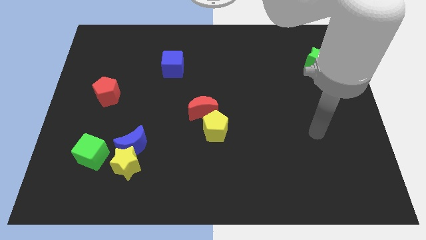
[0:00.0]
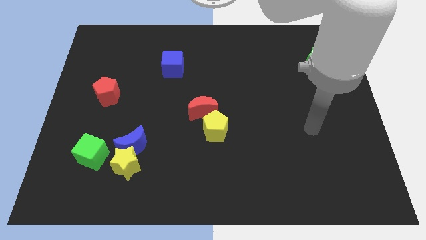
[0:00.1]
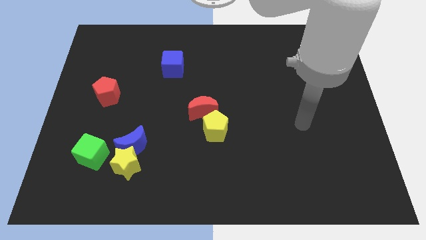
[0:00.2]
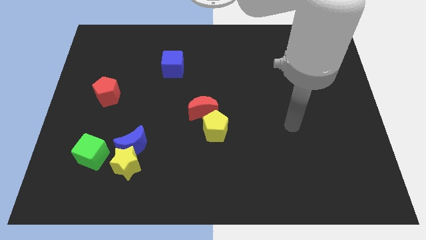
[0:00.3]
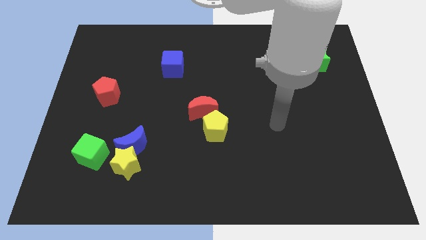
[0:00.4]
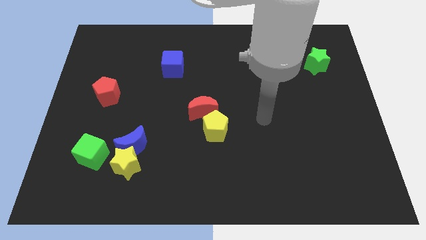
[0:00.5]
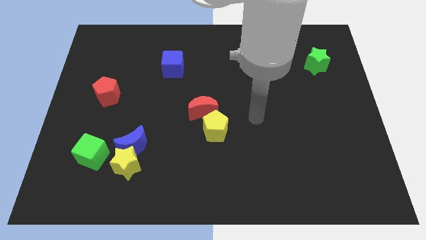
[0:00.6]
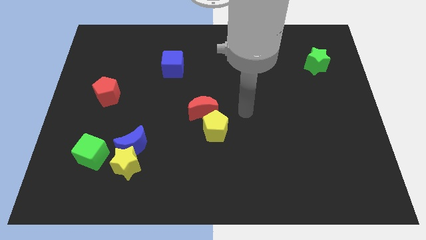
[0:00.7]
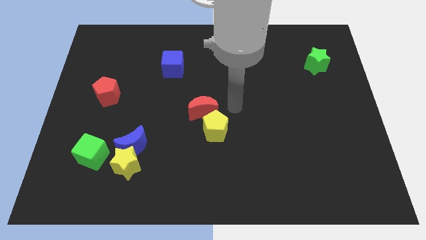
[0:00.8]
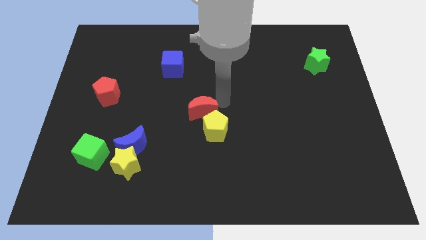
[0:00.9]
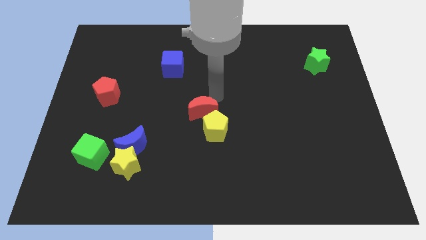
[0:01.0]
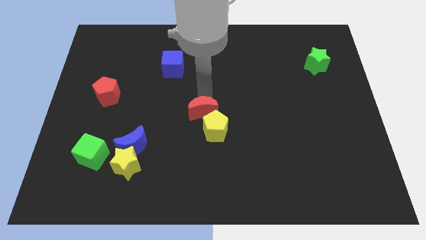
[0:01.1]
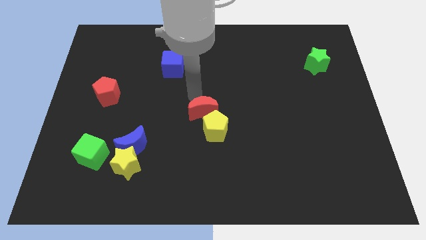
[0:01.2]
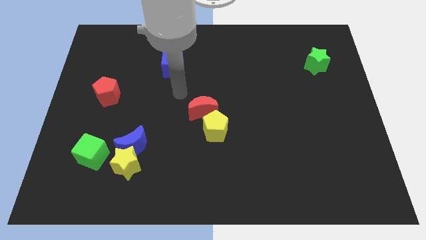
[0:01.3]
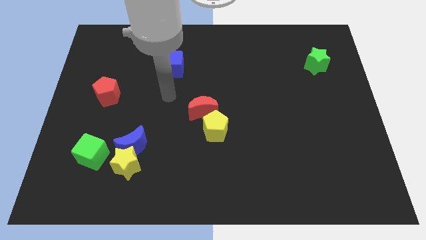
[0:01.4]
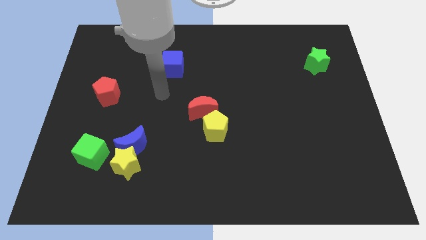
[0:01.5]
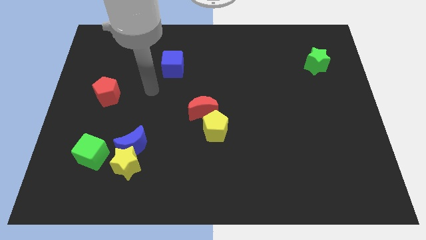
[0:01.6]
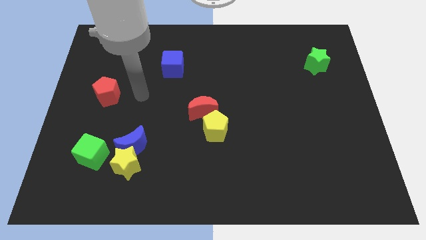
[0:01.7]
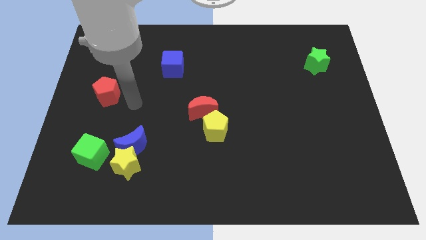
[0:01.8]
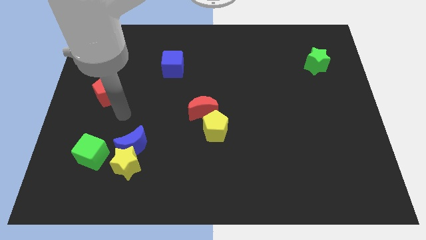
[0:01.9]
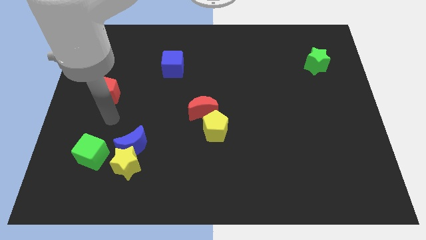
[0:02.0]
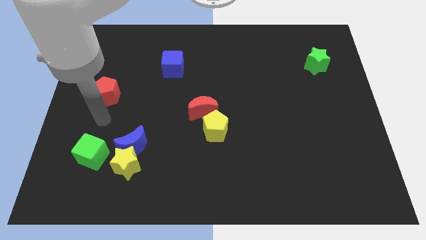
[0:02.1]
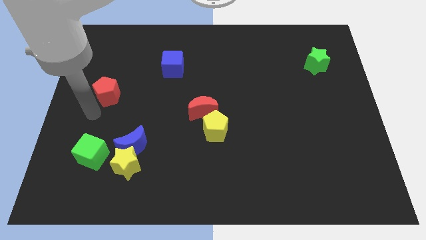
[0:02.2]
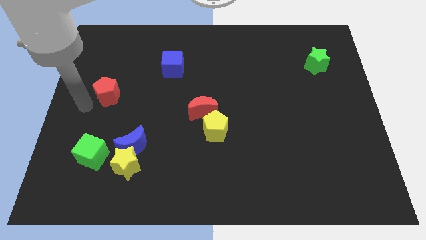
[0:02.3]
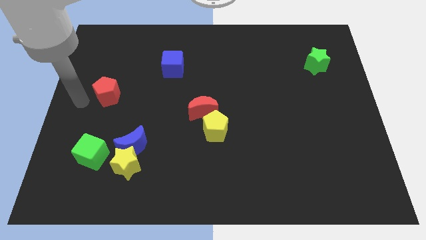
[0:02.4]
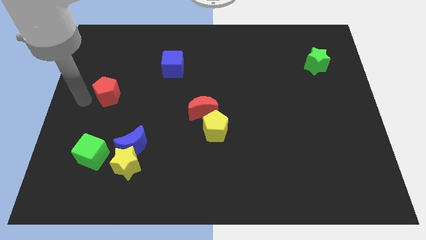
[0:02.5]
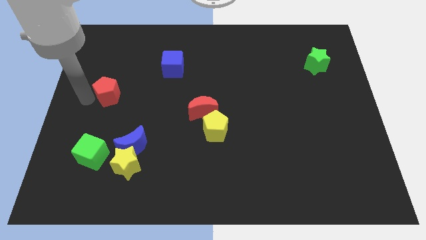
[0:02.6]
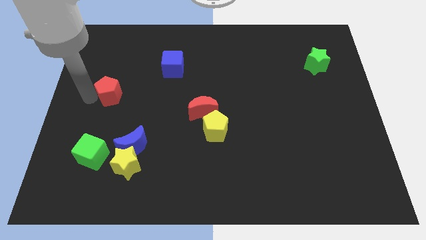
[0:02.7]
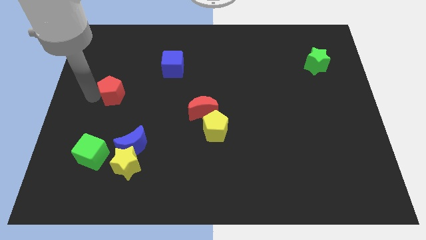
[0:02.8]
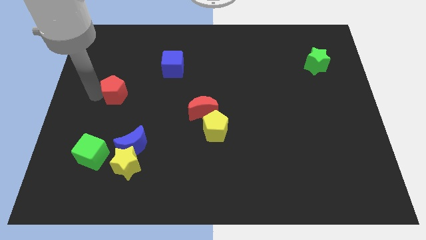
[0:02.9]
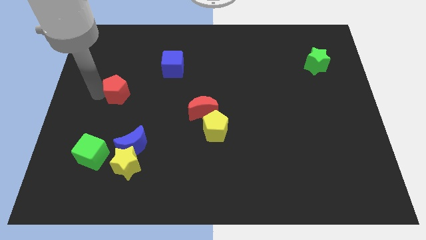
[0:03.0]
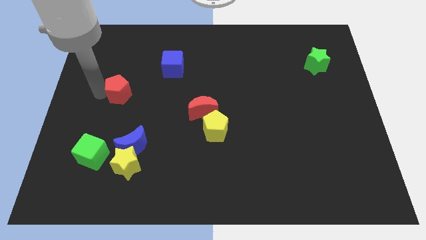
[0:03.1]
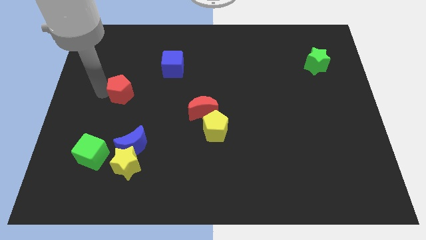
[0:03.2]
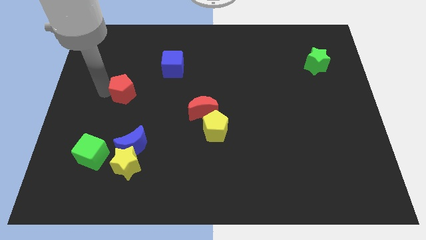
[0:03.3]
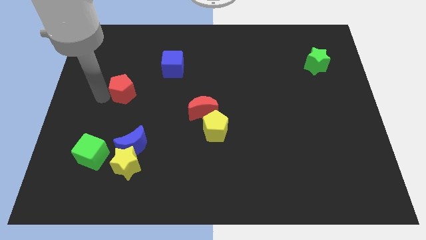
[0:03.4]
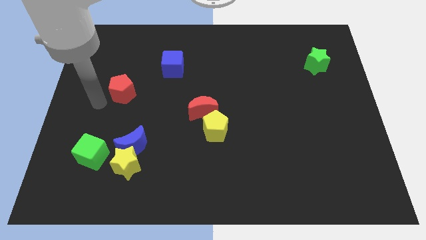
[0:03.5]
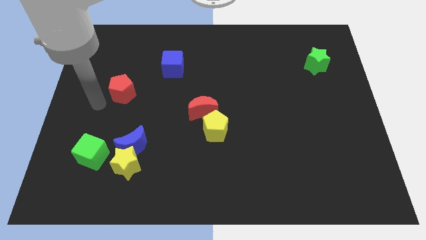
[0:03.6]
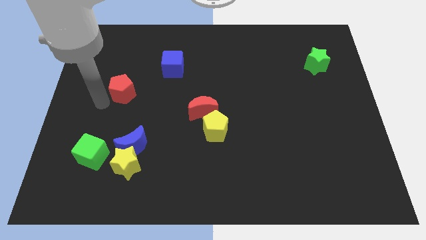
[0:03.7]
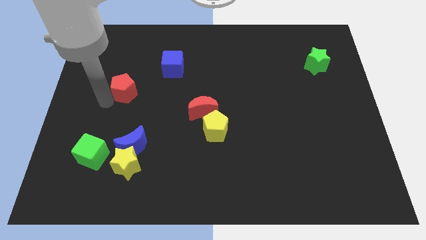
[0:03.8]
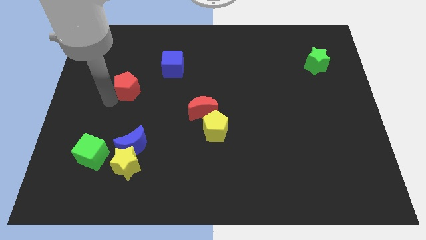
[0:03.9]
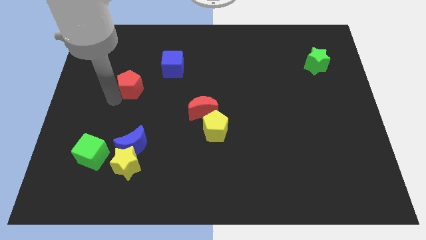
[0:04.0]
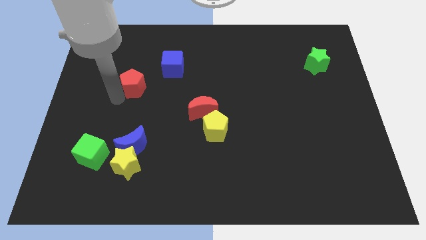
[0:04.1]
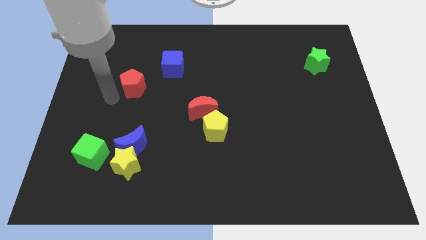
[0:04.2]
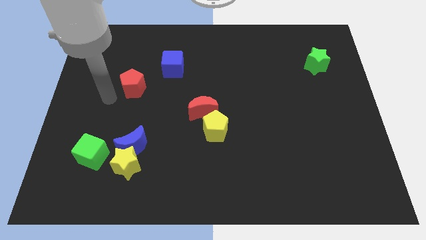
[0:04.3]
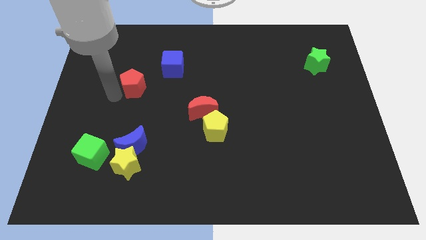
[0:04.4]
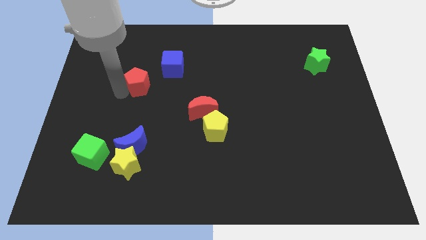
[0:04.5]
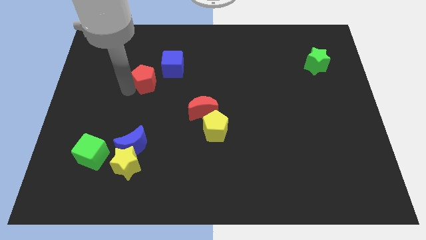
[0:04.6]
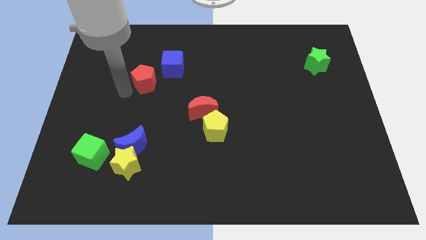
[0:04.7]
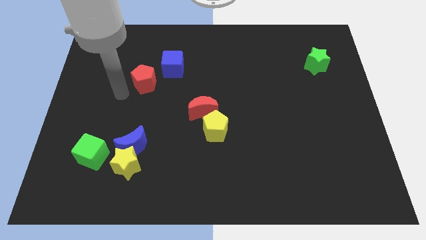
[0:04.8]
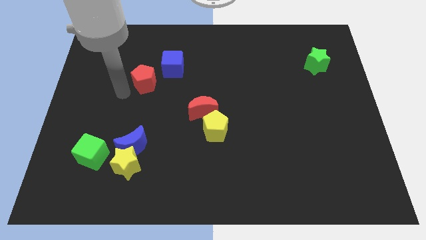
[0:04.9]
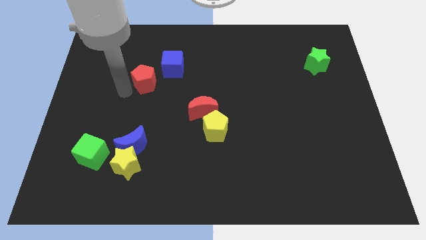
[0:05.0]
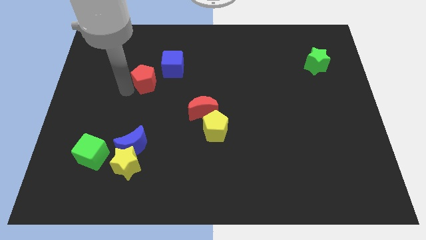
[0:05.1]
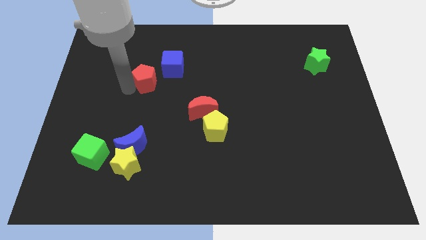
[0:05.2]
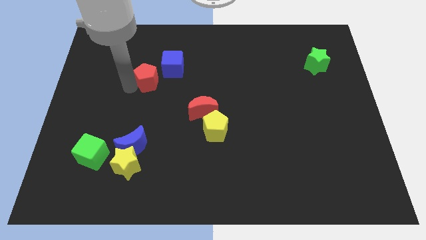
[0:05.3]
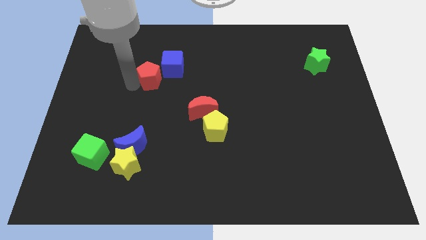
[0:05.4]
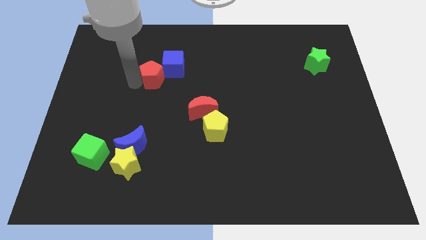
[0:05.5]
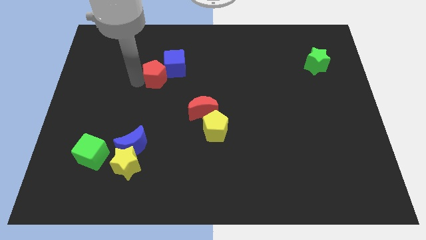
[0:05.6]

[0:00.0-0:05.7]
push the red pentagon towards the blue cube

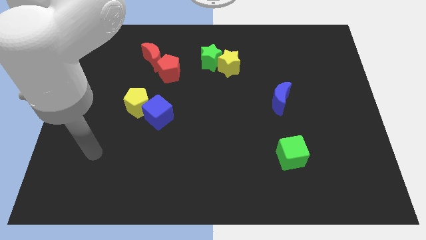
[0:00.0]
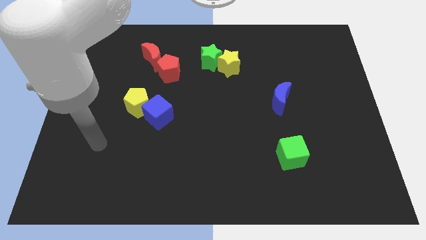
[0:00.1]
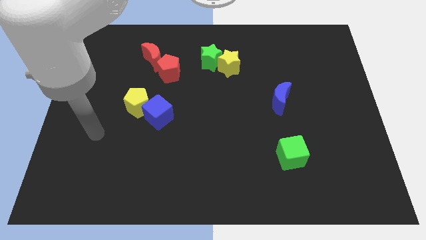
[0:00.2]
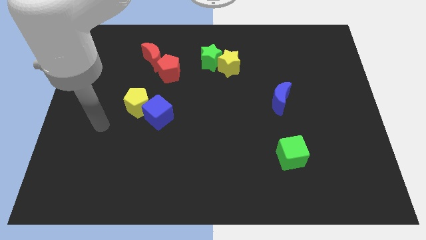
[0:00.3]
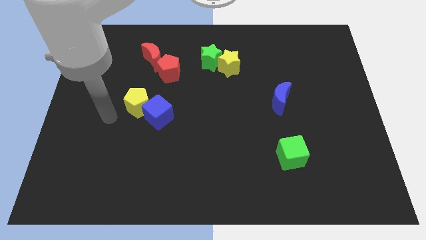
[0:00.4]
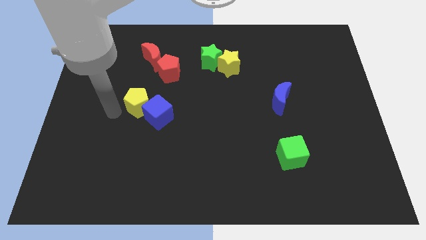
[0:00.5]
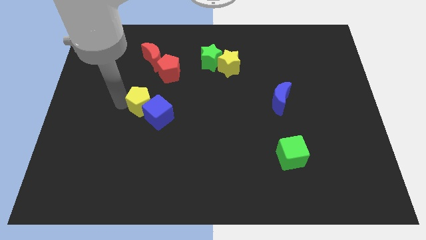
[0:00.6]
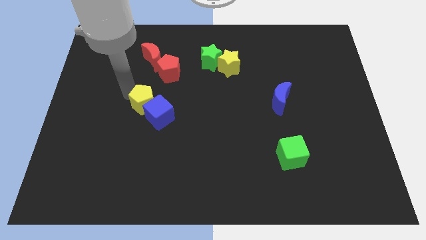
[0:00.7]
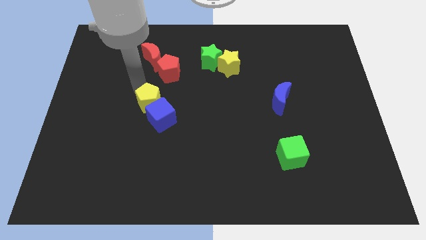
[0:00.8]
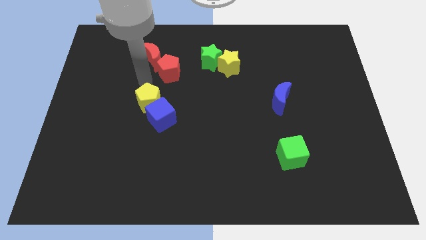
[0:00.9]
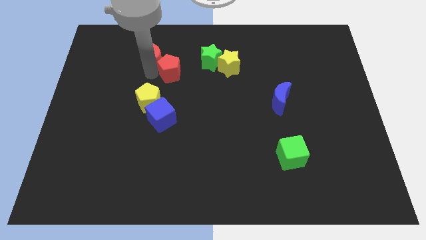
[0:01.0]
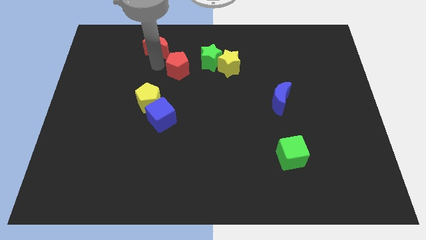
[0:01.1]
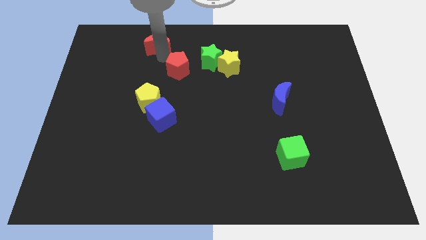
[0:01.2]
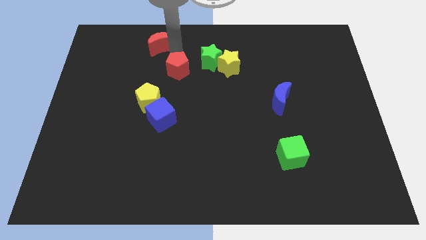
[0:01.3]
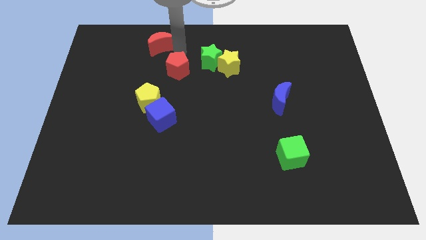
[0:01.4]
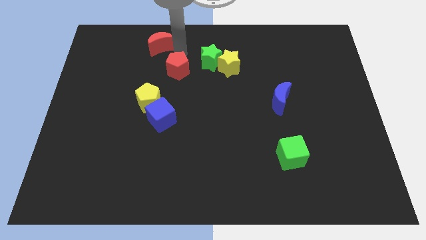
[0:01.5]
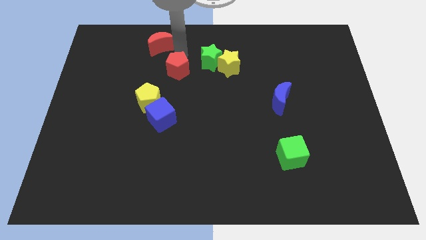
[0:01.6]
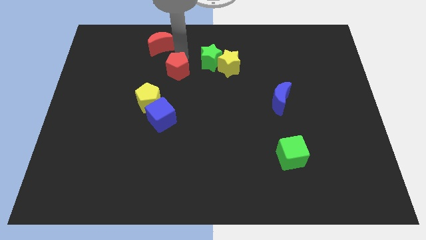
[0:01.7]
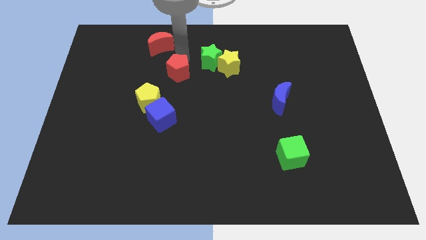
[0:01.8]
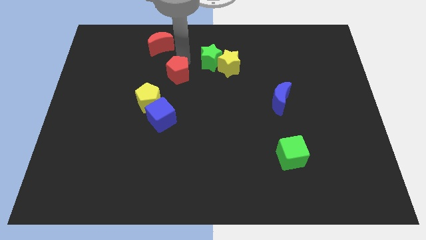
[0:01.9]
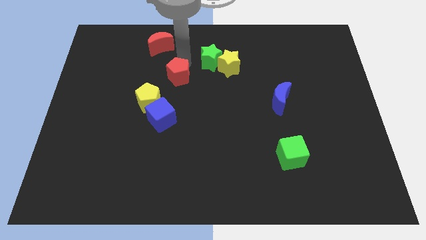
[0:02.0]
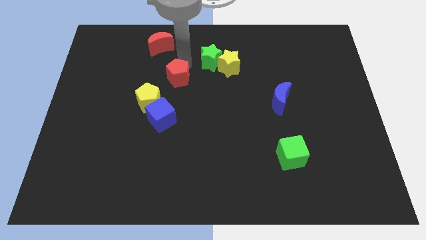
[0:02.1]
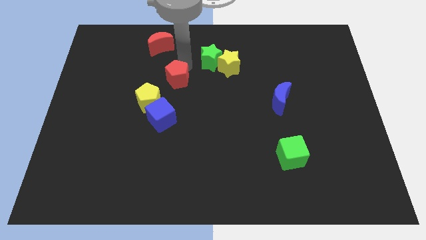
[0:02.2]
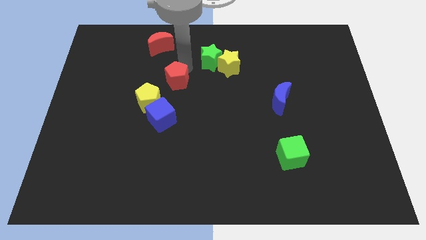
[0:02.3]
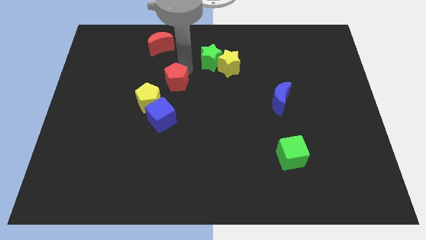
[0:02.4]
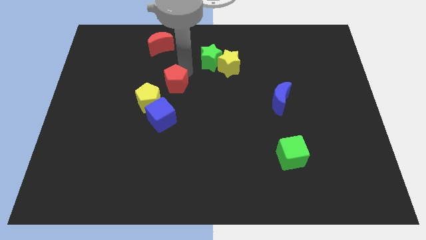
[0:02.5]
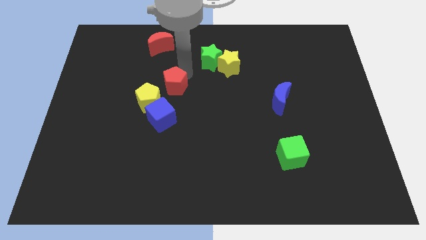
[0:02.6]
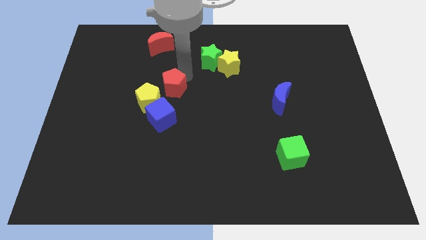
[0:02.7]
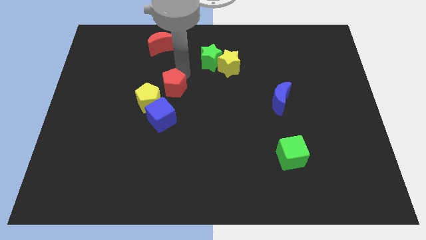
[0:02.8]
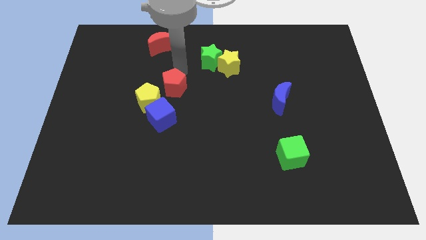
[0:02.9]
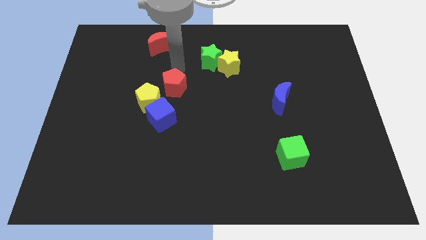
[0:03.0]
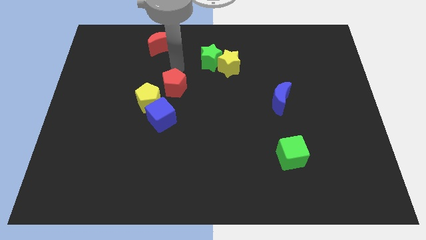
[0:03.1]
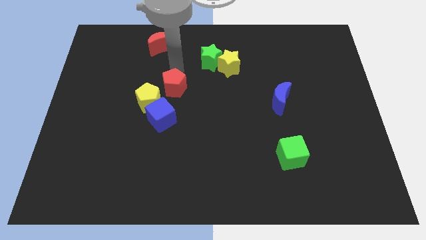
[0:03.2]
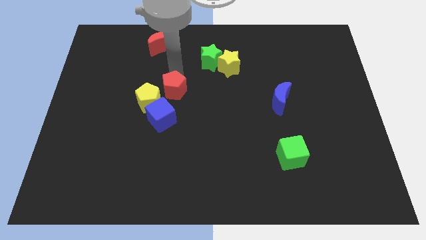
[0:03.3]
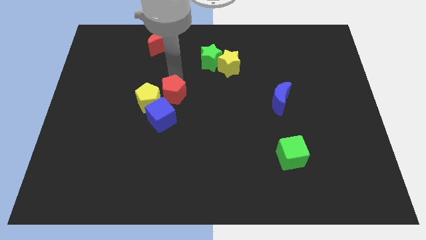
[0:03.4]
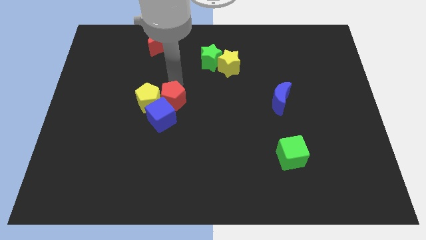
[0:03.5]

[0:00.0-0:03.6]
slide the red pentagon to the blue cube
